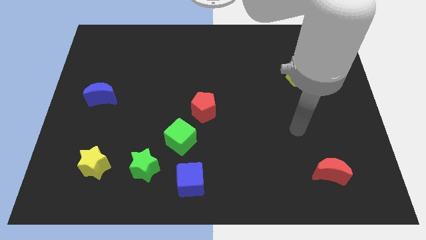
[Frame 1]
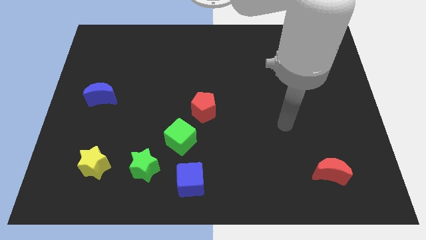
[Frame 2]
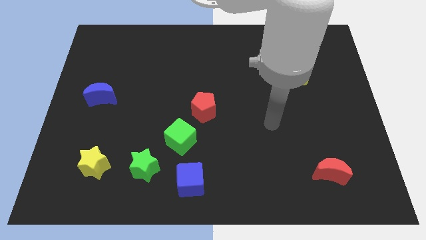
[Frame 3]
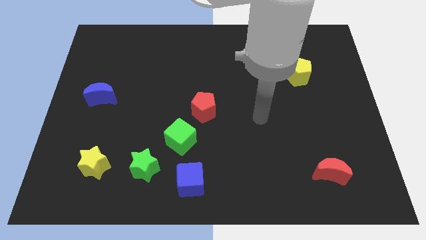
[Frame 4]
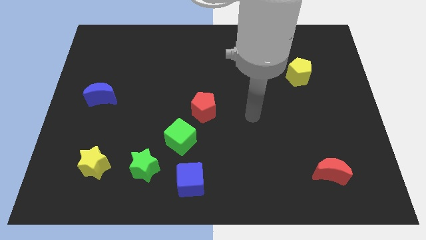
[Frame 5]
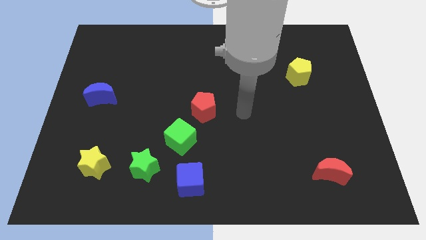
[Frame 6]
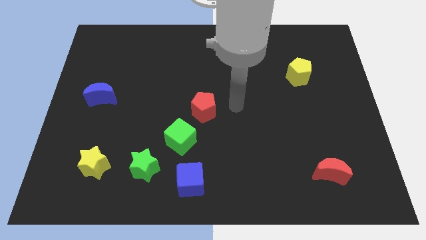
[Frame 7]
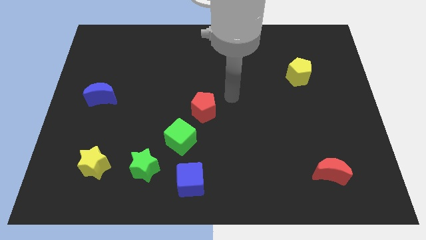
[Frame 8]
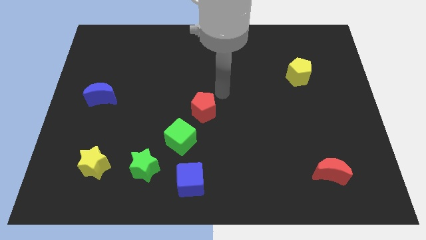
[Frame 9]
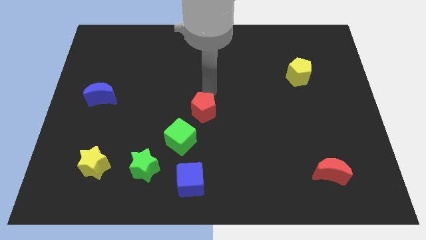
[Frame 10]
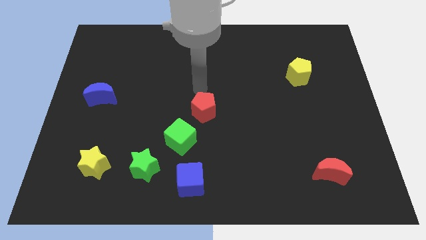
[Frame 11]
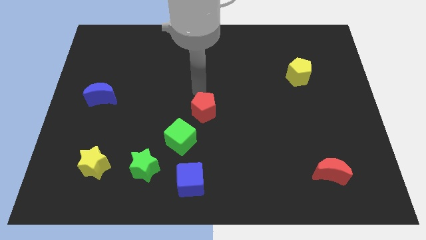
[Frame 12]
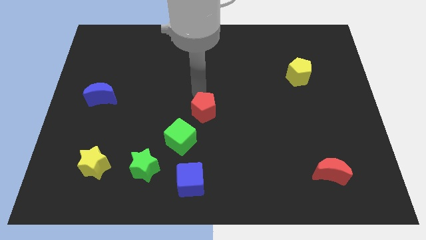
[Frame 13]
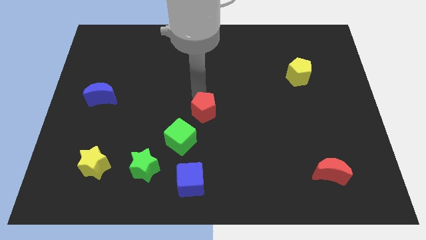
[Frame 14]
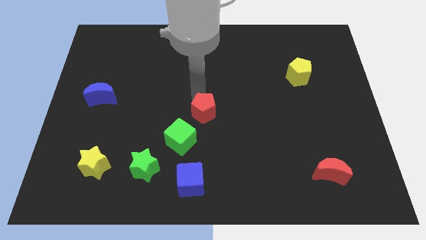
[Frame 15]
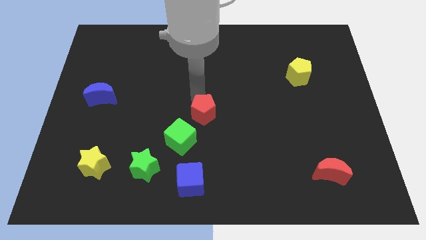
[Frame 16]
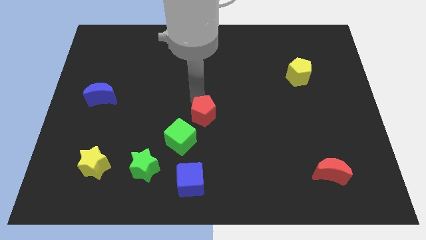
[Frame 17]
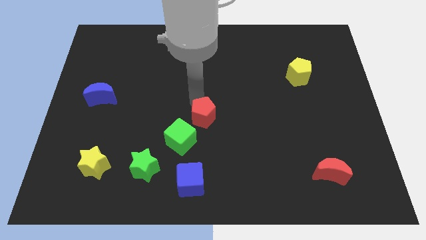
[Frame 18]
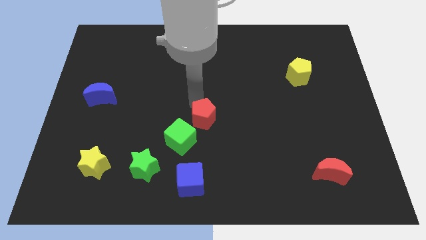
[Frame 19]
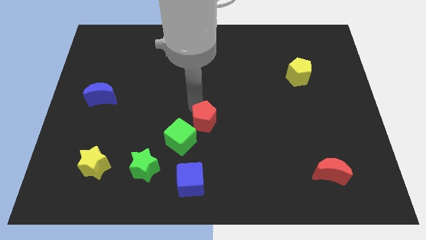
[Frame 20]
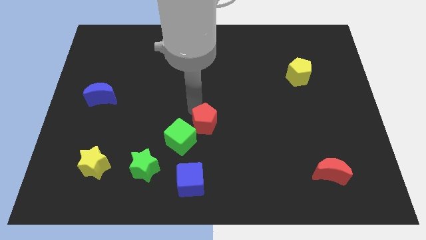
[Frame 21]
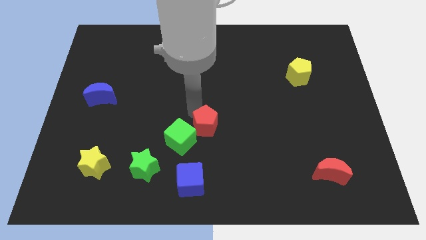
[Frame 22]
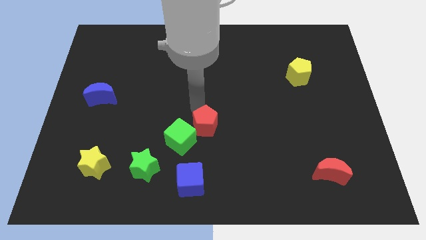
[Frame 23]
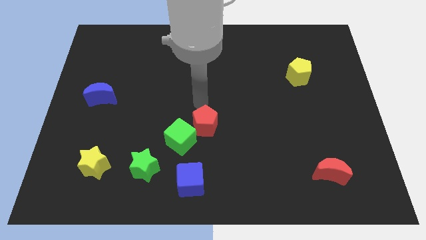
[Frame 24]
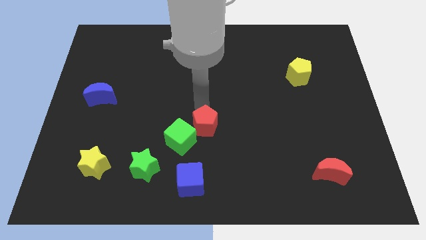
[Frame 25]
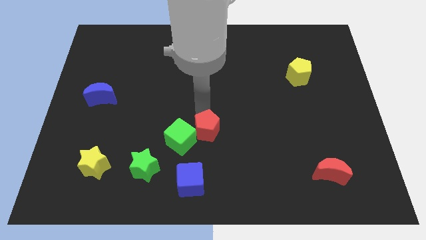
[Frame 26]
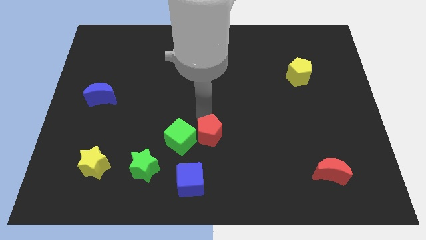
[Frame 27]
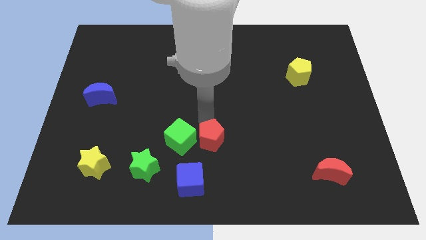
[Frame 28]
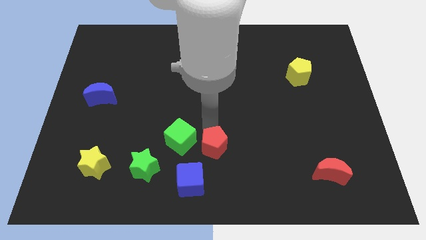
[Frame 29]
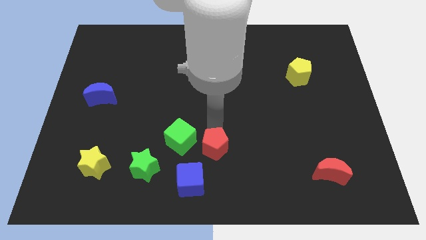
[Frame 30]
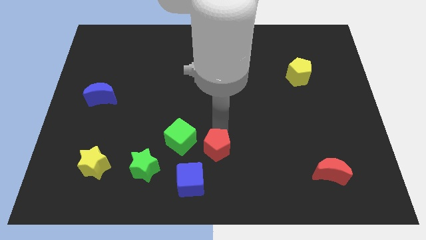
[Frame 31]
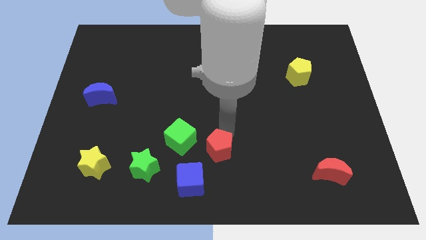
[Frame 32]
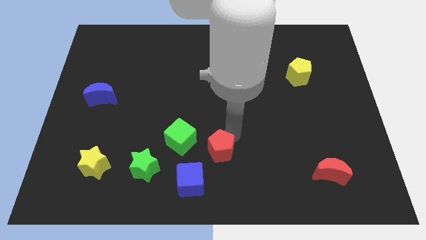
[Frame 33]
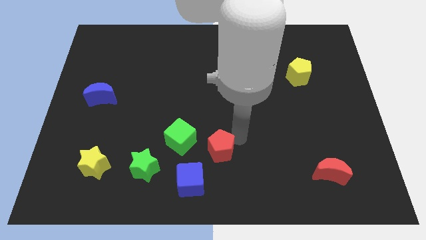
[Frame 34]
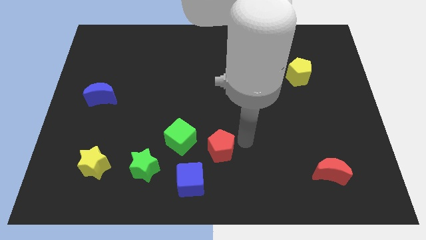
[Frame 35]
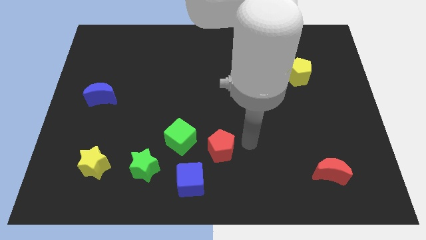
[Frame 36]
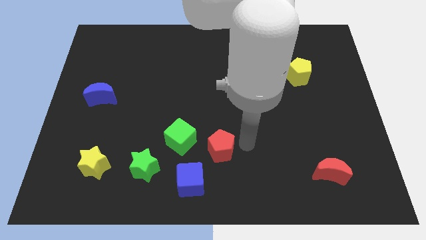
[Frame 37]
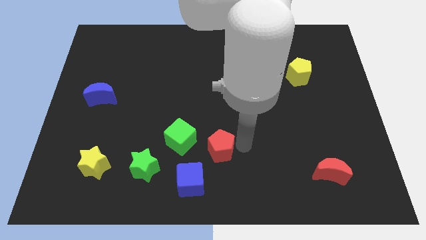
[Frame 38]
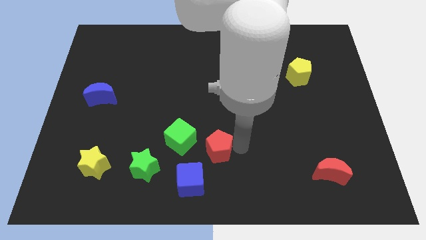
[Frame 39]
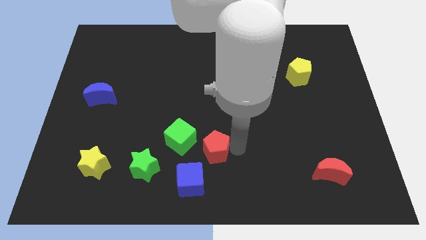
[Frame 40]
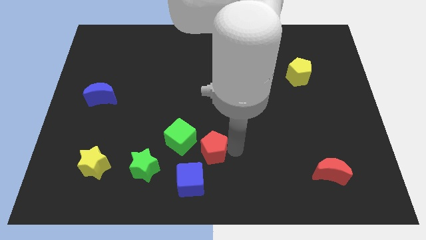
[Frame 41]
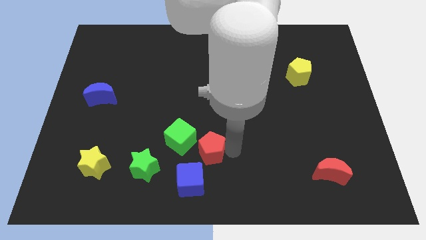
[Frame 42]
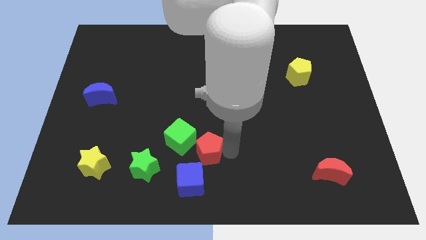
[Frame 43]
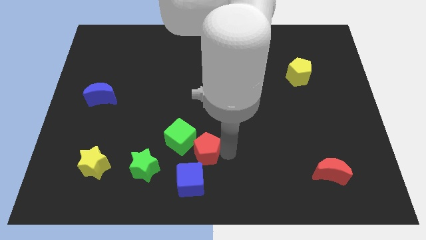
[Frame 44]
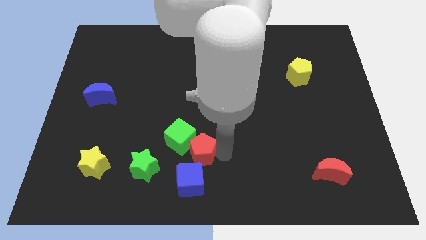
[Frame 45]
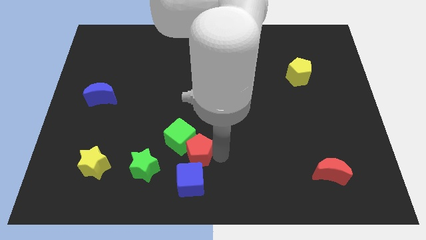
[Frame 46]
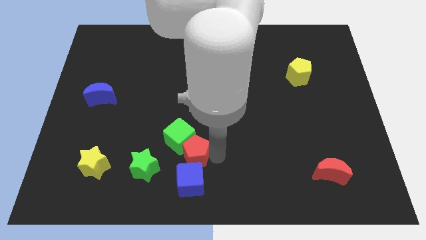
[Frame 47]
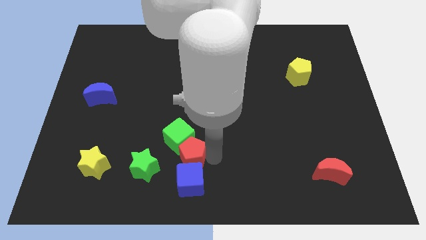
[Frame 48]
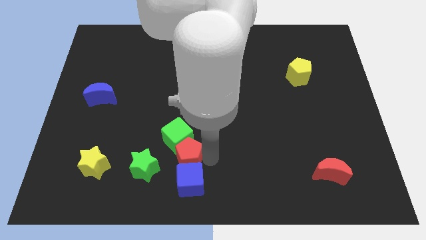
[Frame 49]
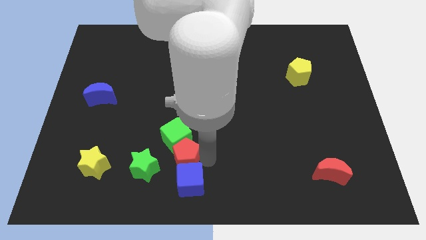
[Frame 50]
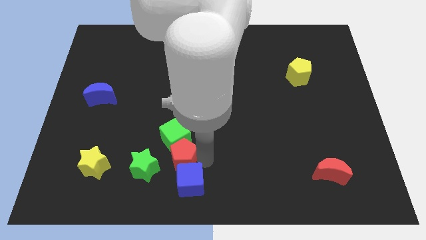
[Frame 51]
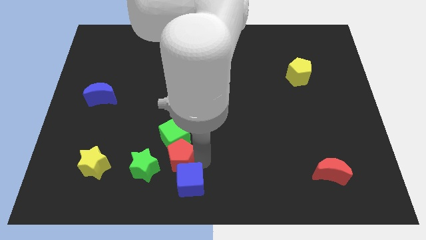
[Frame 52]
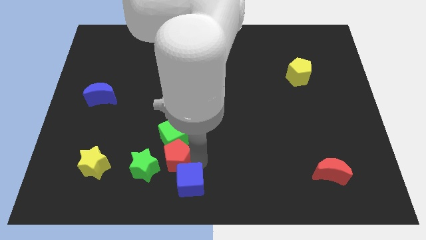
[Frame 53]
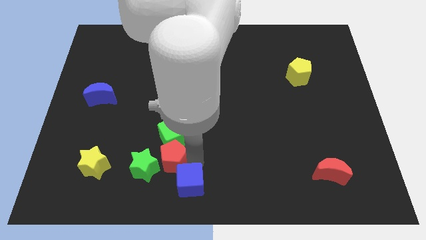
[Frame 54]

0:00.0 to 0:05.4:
push the red pentagon to the right side of the yellow star

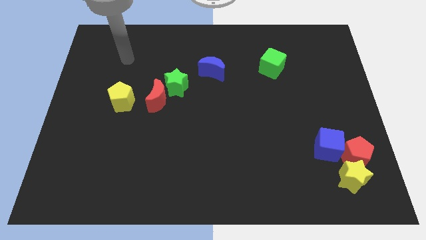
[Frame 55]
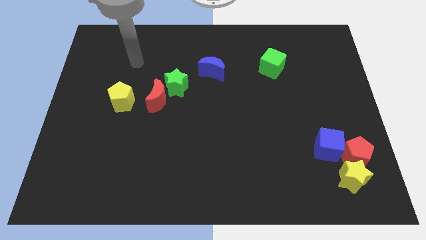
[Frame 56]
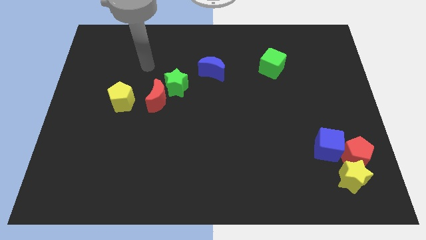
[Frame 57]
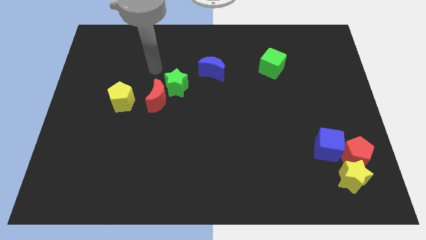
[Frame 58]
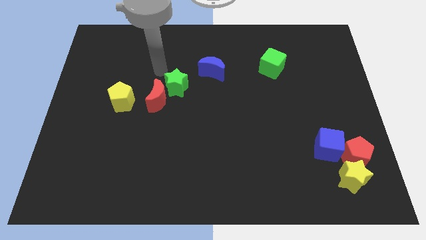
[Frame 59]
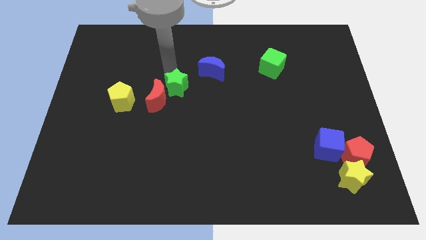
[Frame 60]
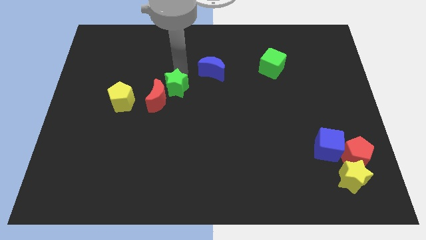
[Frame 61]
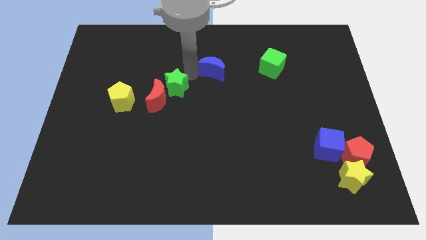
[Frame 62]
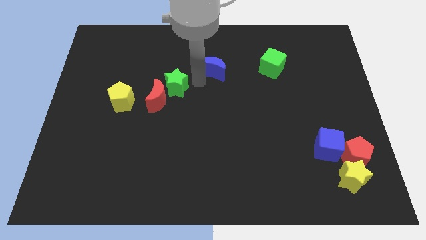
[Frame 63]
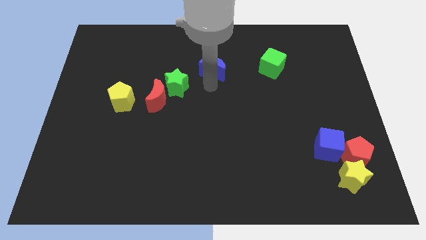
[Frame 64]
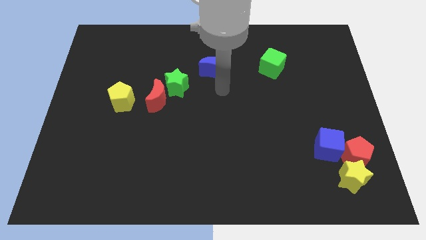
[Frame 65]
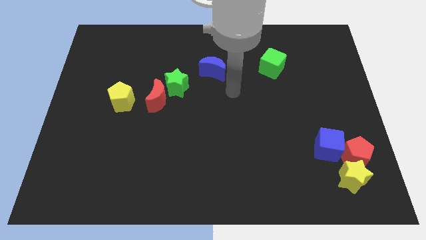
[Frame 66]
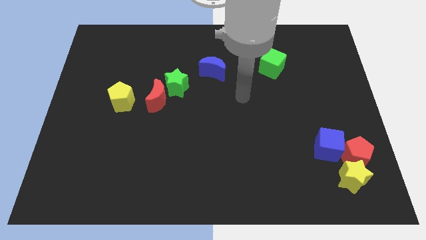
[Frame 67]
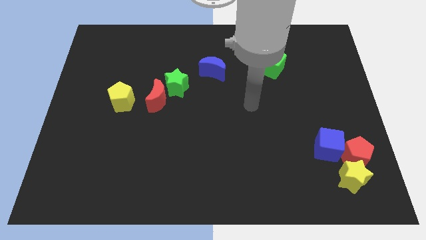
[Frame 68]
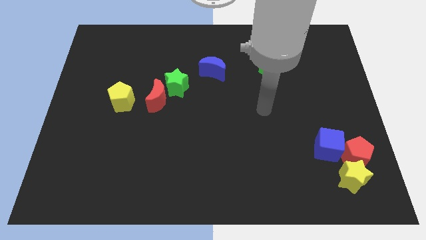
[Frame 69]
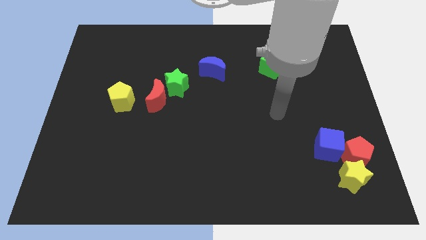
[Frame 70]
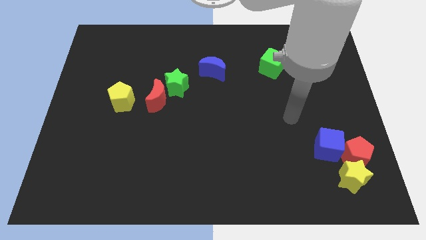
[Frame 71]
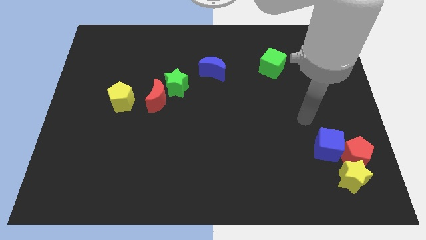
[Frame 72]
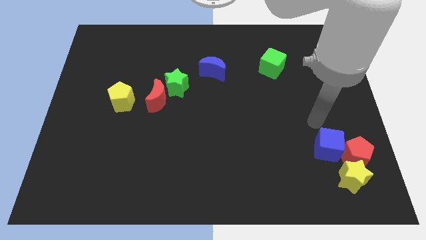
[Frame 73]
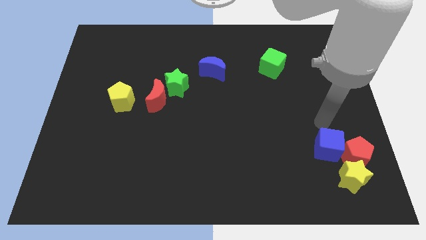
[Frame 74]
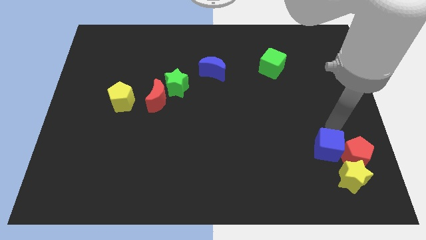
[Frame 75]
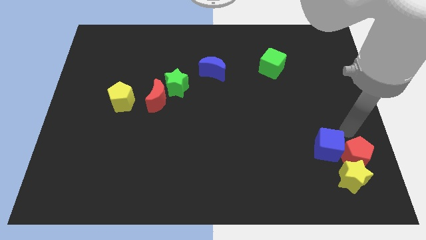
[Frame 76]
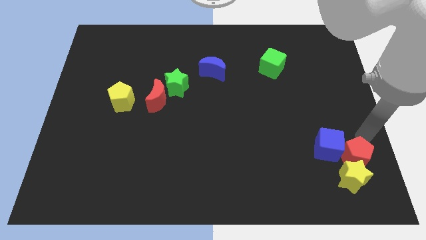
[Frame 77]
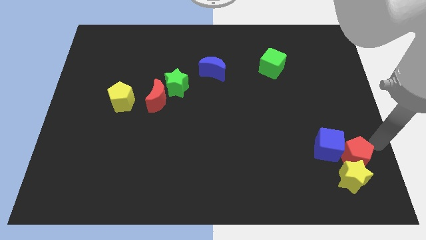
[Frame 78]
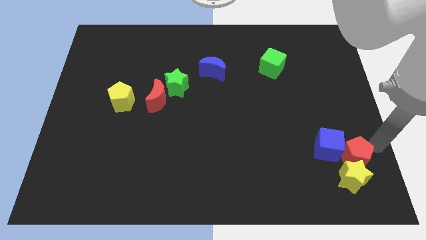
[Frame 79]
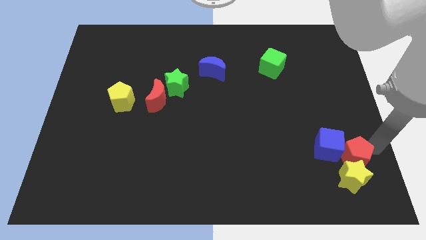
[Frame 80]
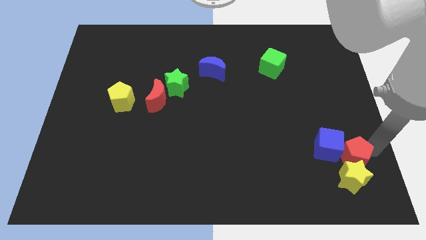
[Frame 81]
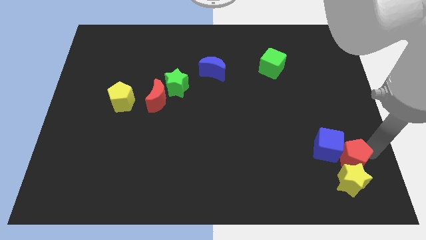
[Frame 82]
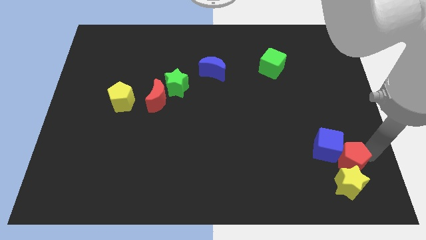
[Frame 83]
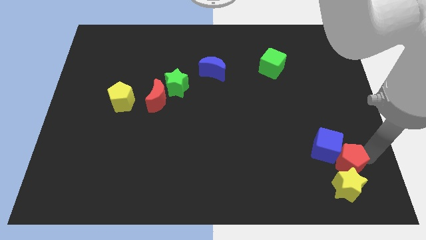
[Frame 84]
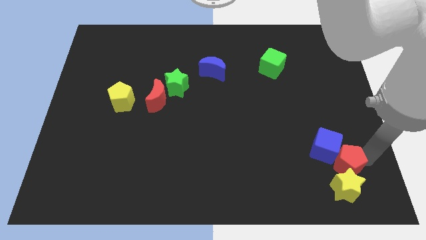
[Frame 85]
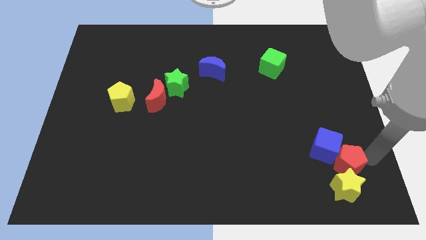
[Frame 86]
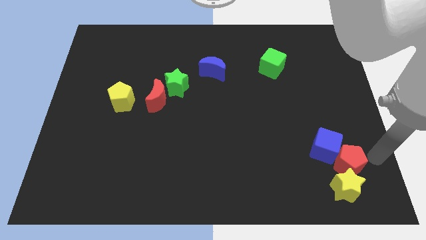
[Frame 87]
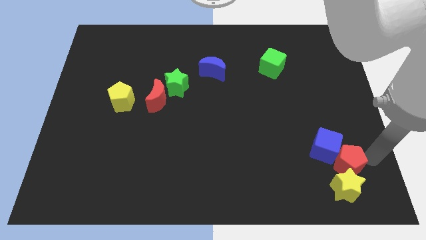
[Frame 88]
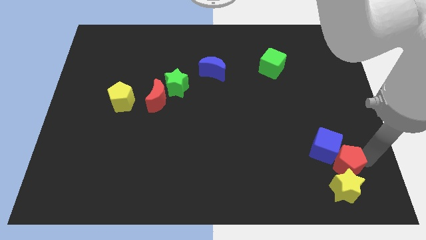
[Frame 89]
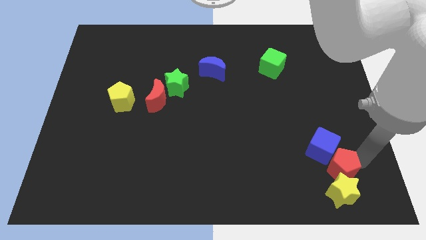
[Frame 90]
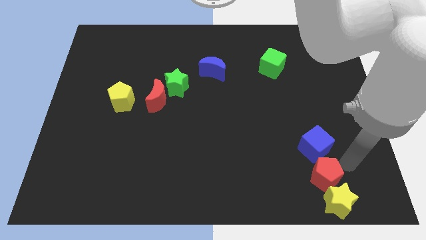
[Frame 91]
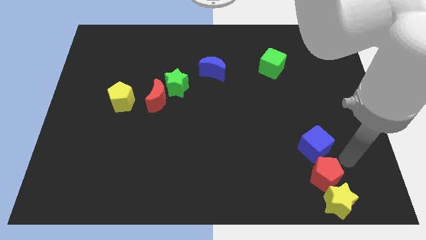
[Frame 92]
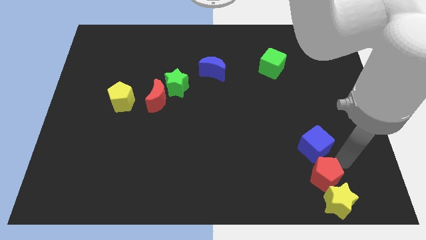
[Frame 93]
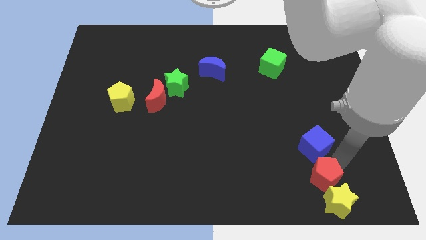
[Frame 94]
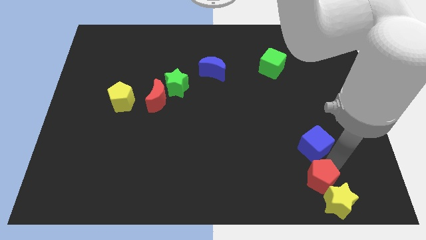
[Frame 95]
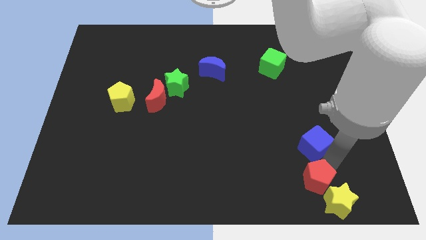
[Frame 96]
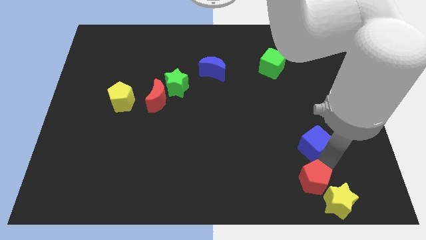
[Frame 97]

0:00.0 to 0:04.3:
slide the red pentagon to the left of the yellow star
